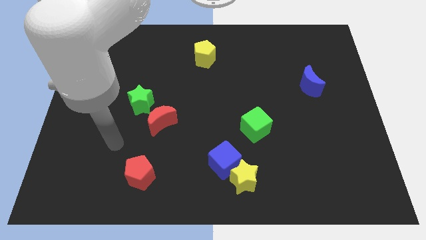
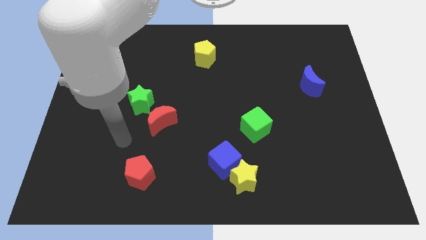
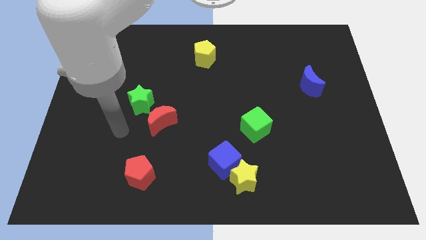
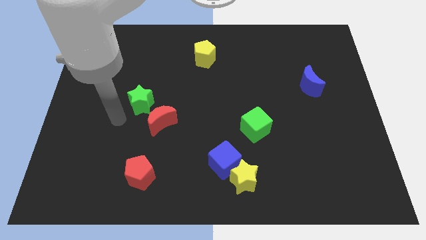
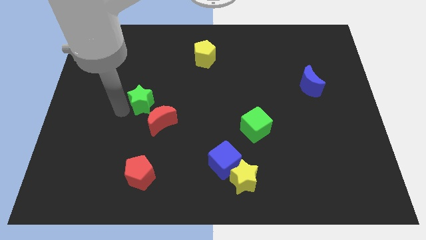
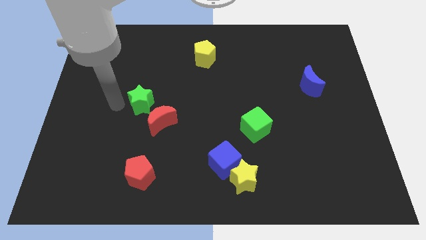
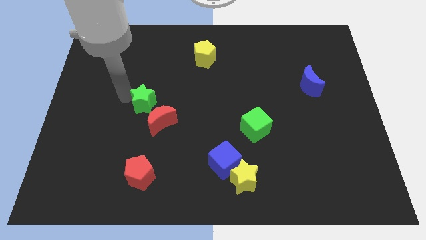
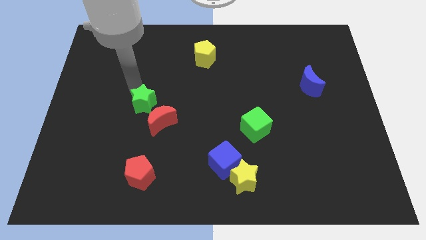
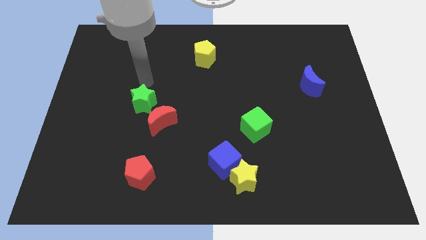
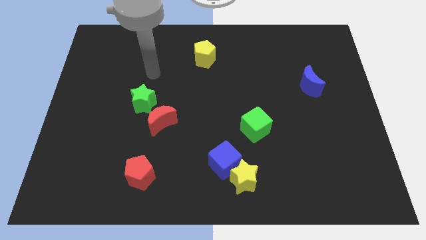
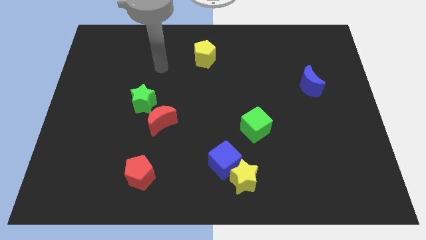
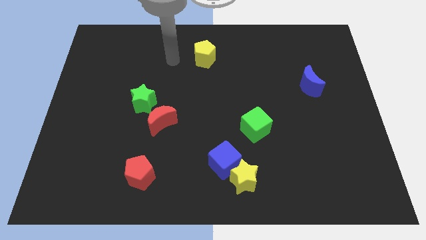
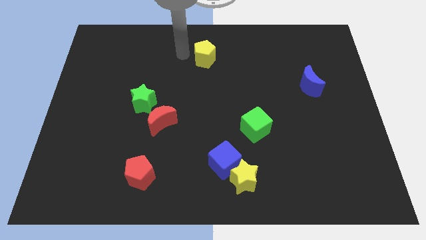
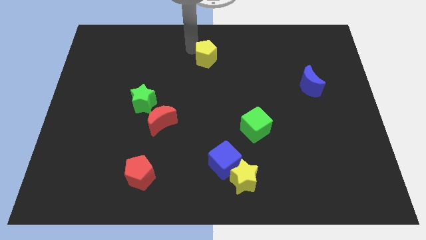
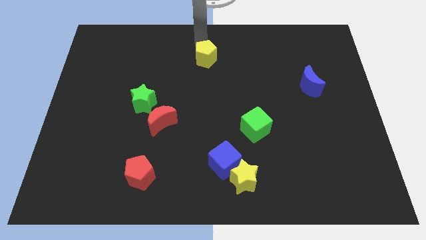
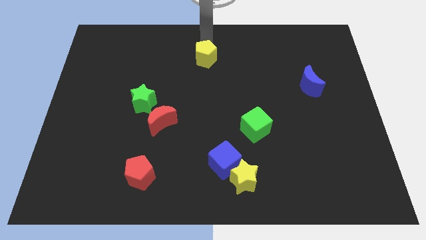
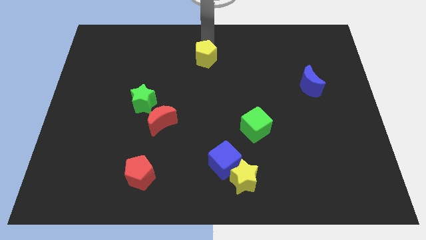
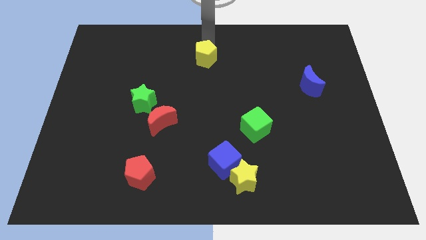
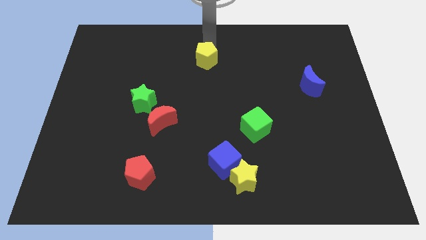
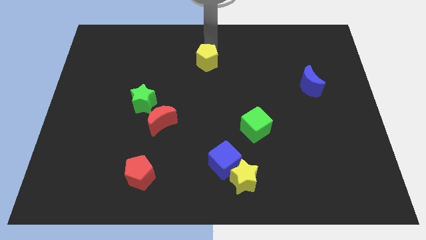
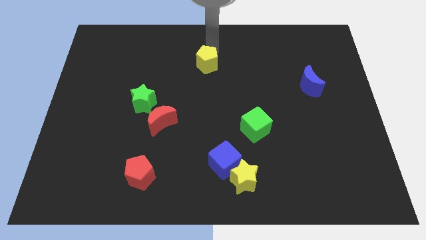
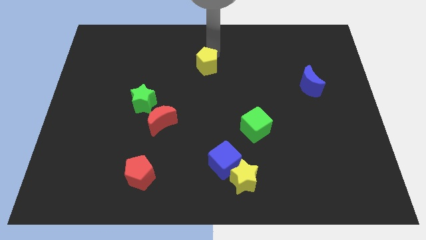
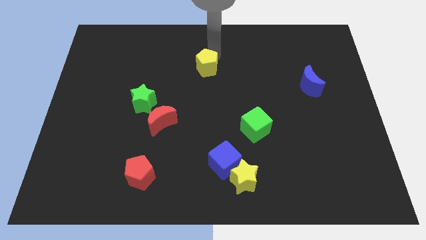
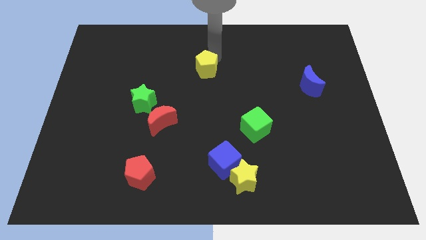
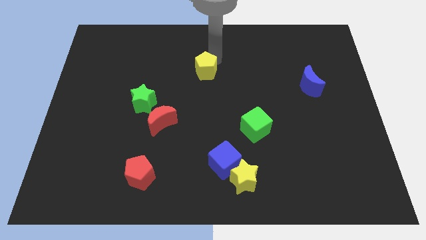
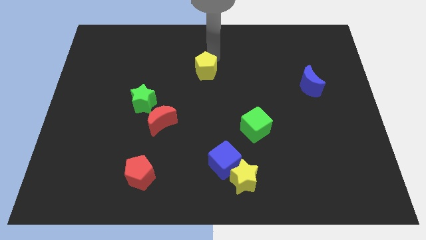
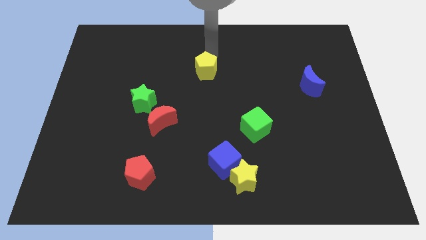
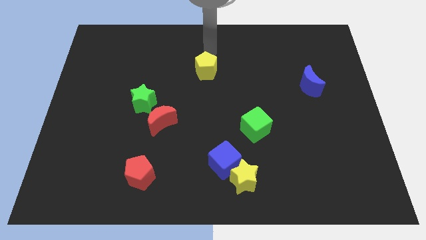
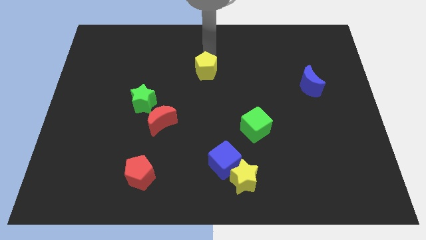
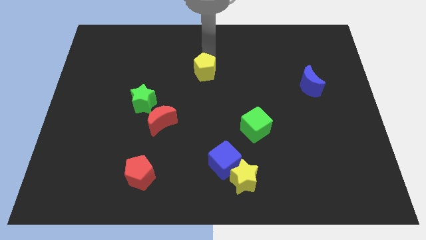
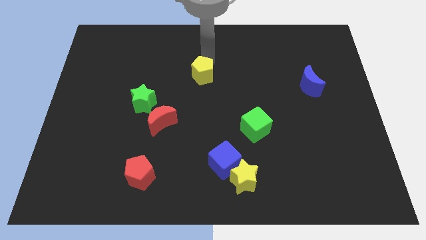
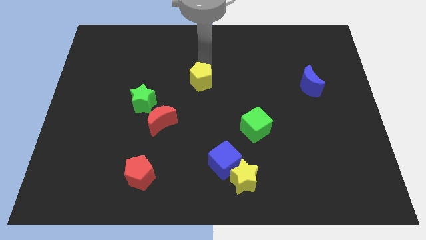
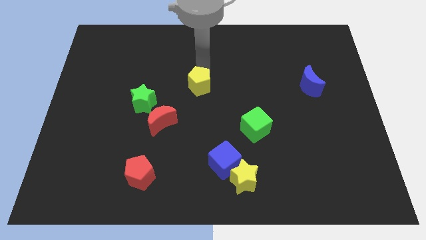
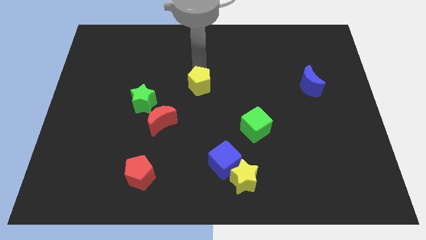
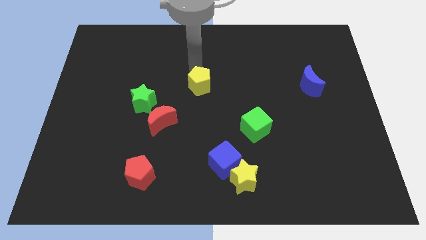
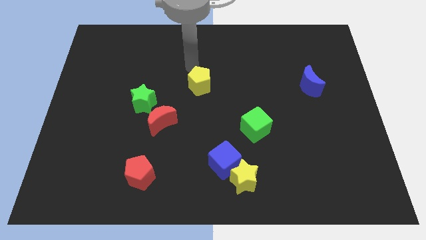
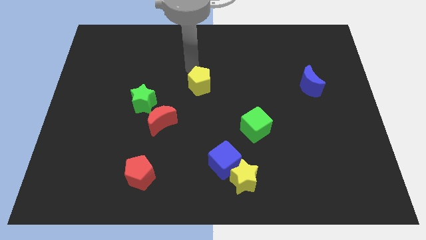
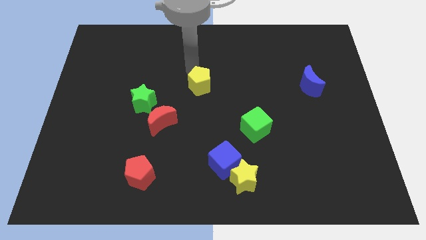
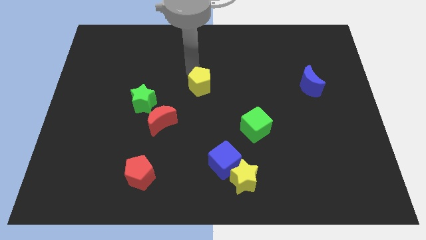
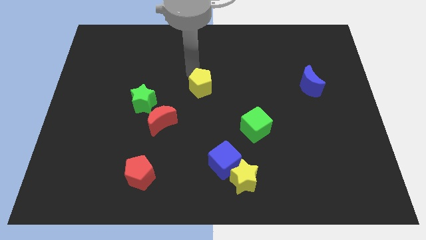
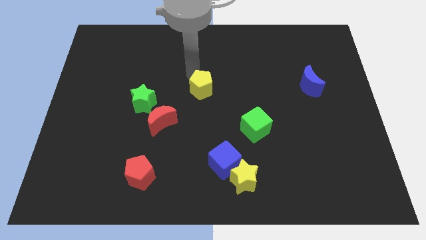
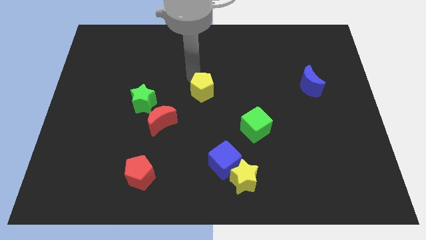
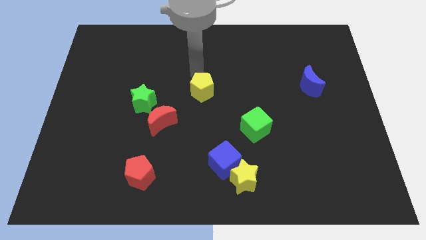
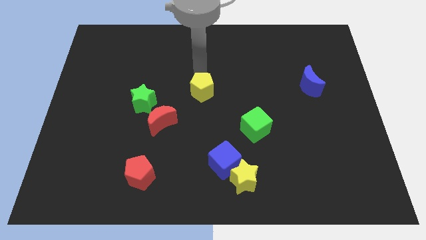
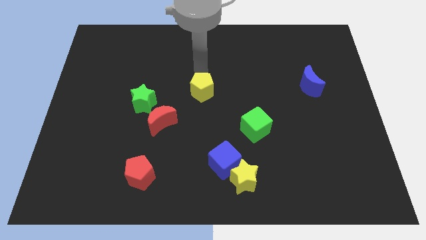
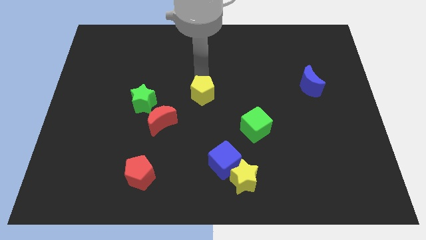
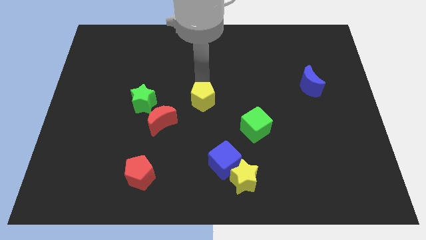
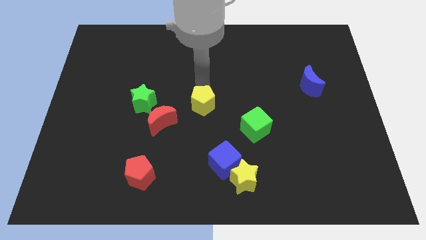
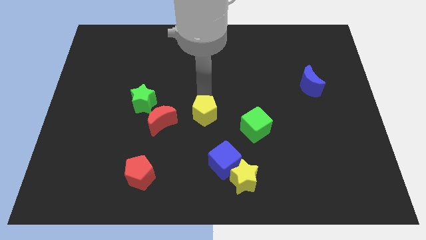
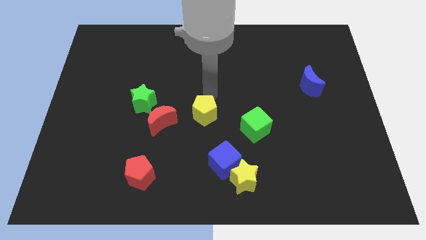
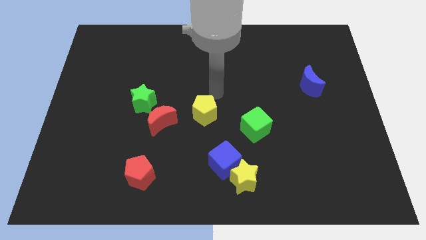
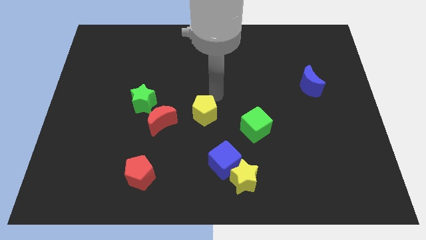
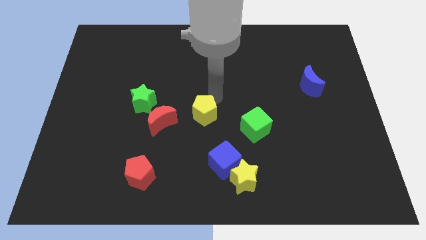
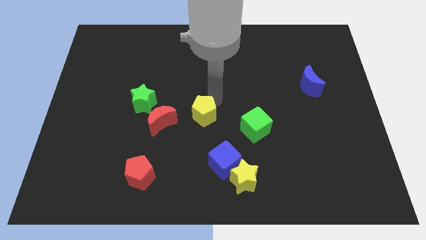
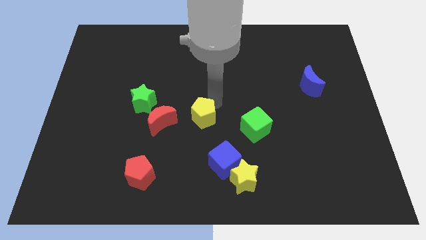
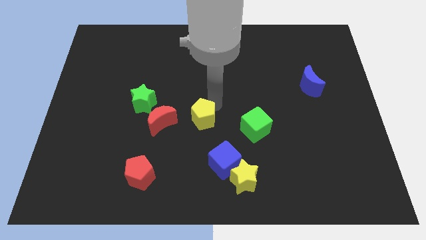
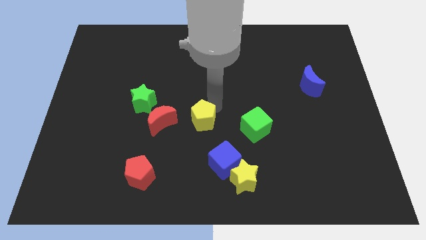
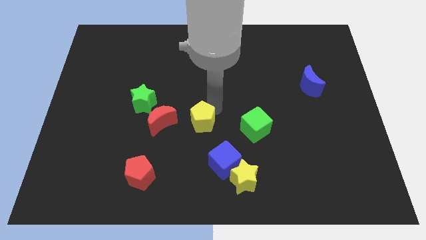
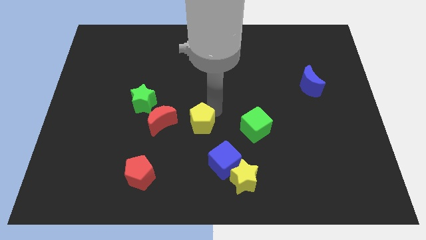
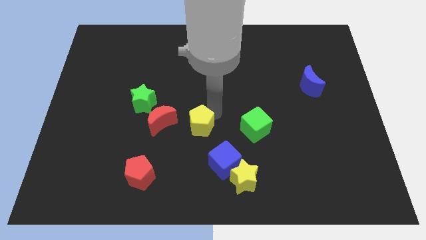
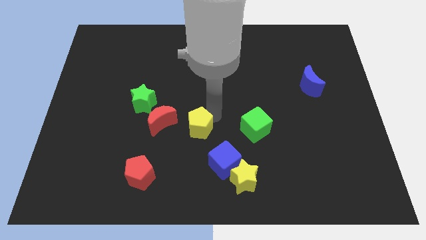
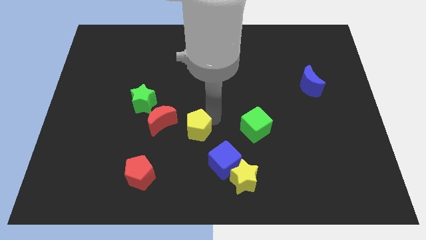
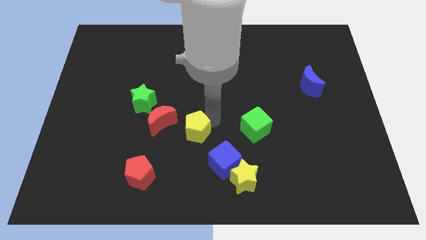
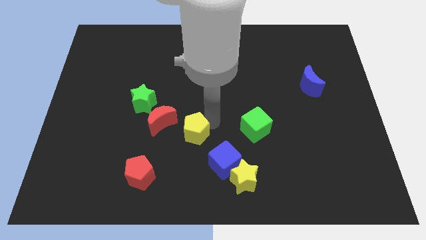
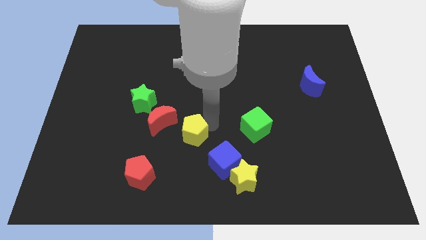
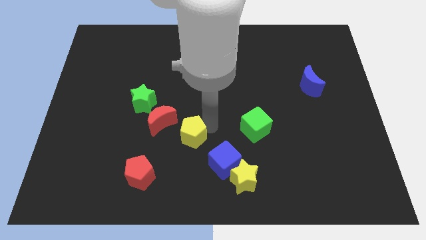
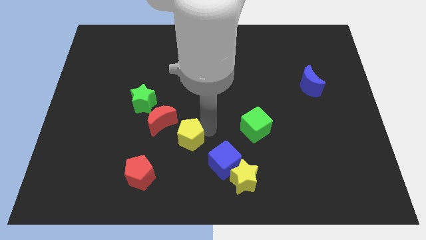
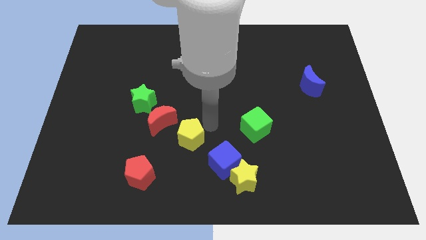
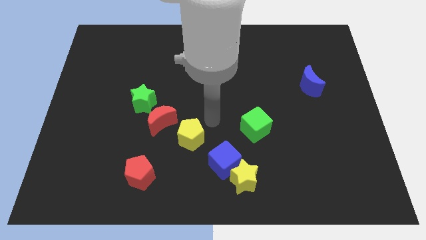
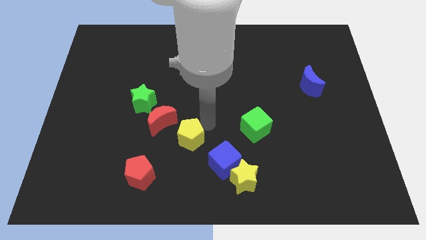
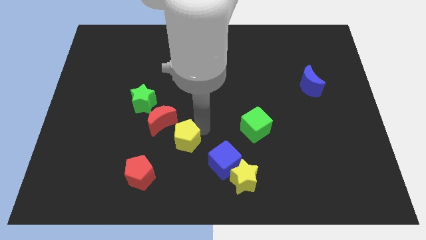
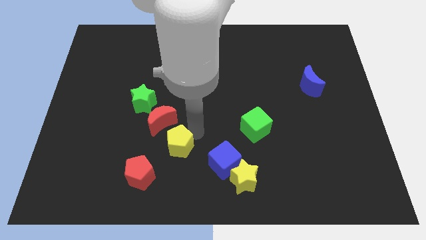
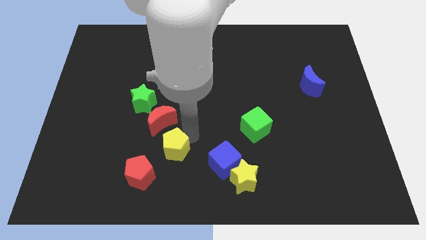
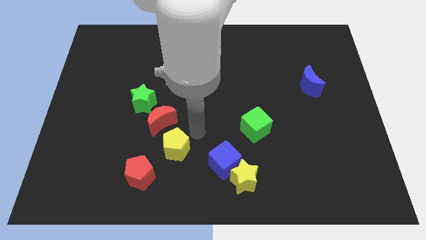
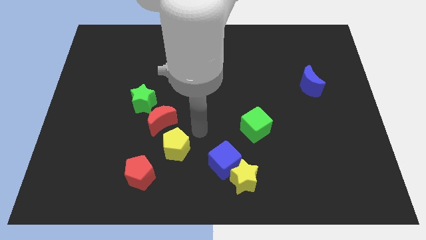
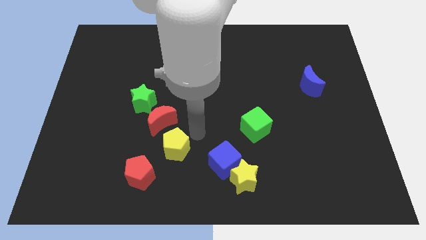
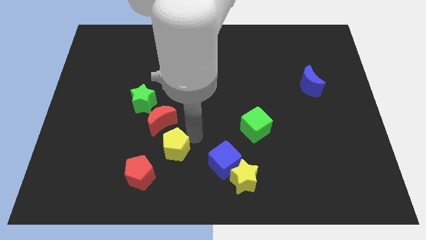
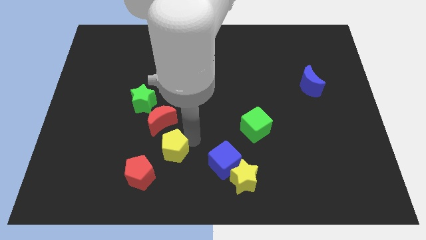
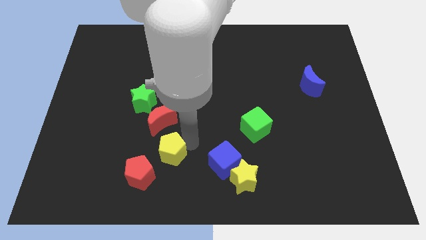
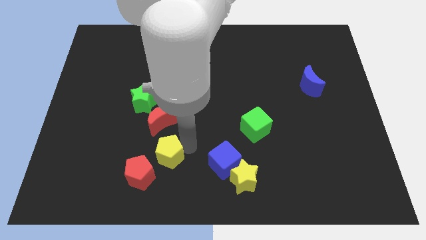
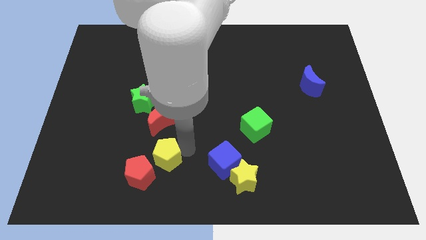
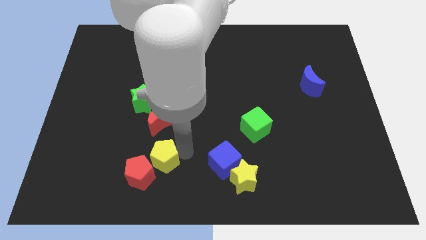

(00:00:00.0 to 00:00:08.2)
move the yellow pentagon to the red pentagon
